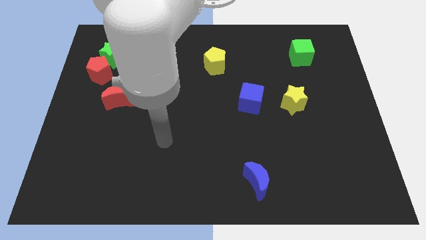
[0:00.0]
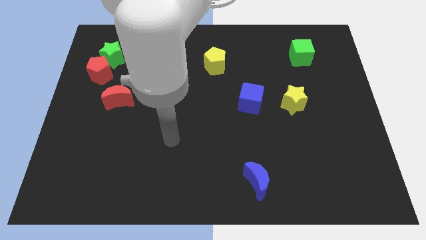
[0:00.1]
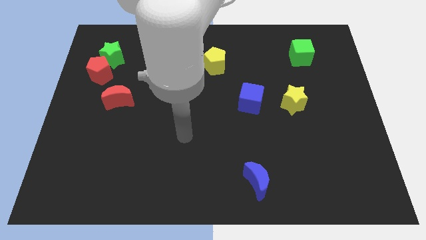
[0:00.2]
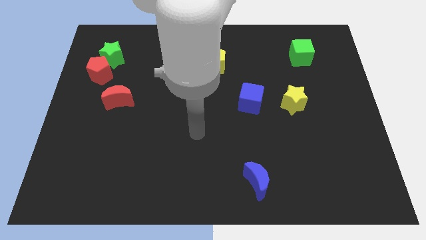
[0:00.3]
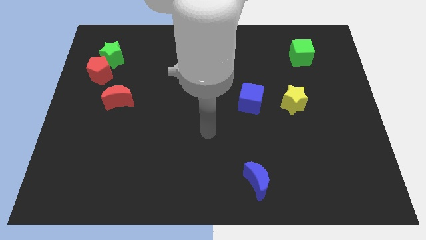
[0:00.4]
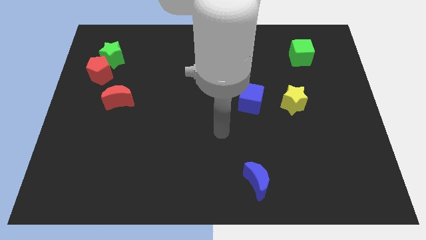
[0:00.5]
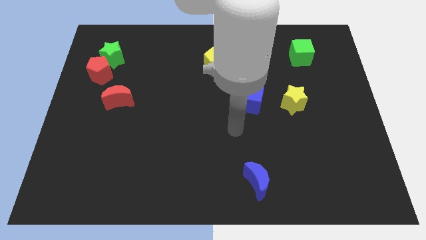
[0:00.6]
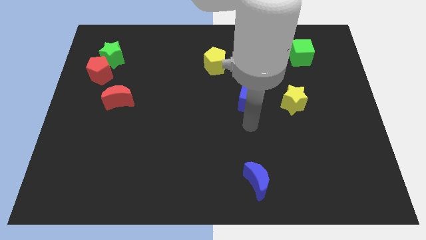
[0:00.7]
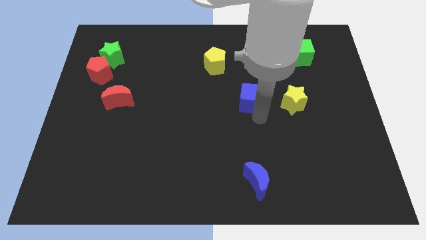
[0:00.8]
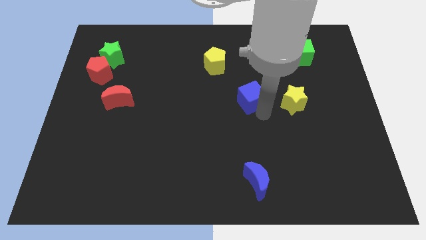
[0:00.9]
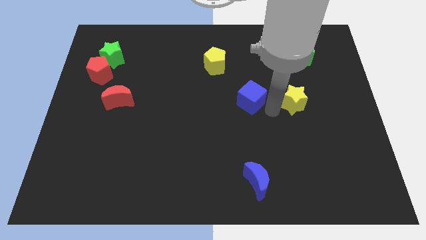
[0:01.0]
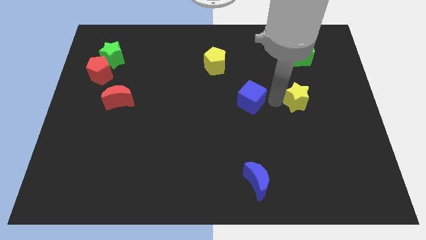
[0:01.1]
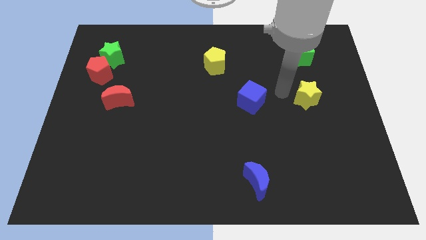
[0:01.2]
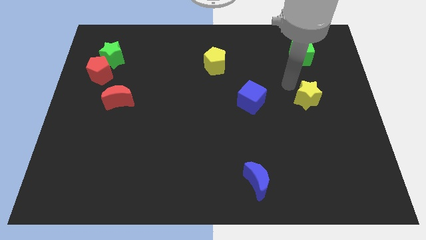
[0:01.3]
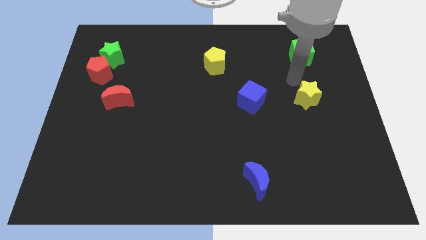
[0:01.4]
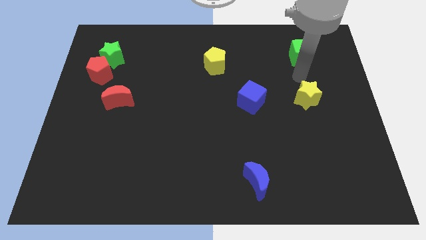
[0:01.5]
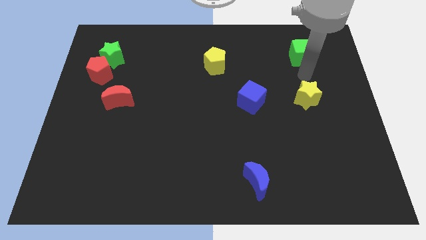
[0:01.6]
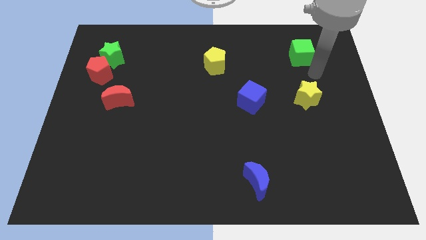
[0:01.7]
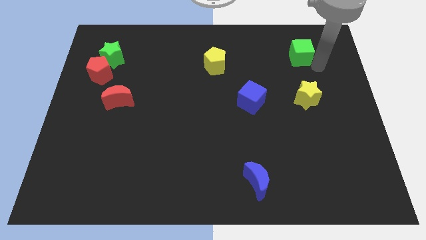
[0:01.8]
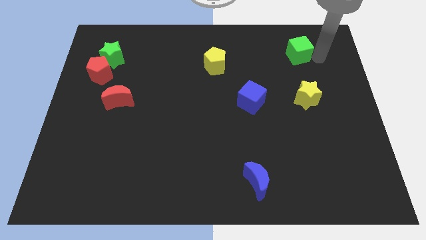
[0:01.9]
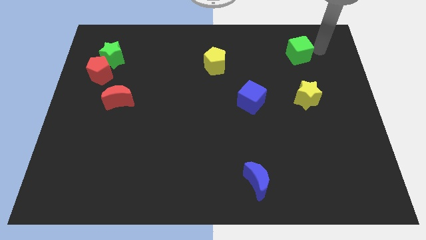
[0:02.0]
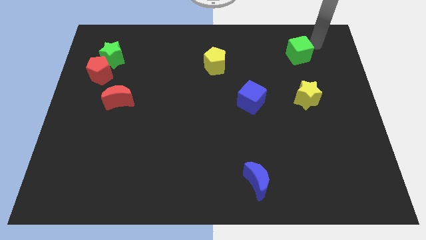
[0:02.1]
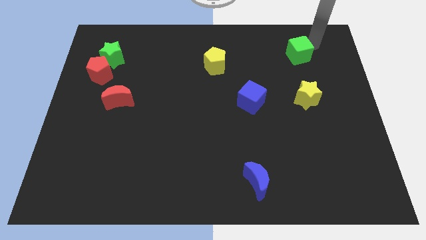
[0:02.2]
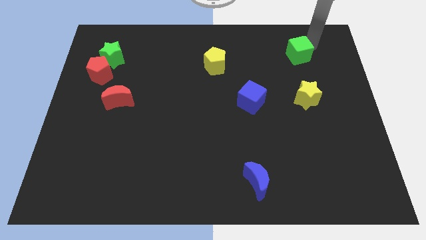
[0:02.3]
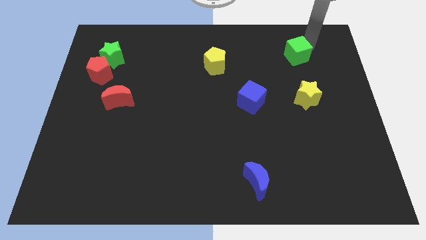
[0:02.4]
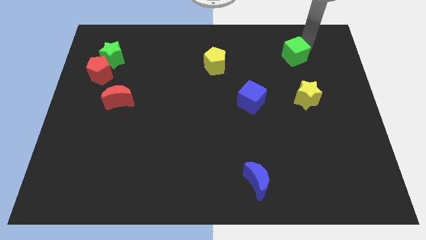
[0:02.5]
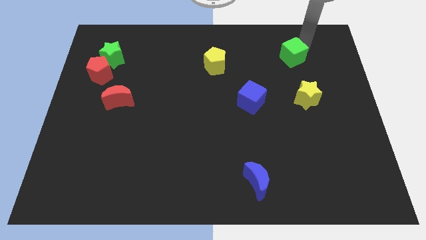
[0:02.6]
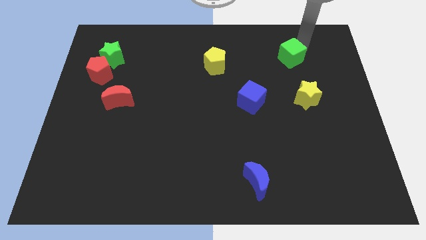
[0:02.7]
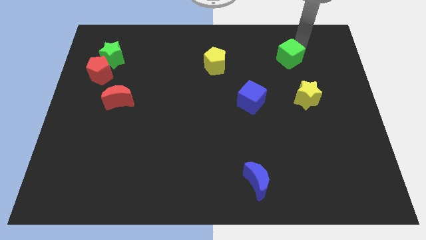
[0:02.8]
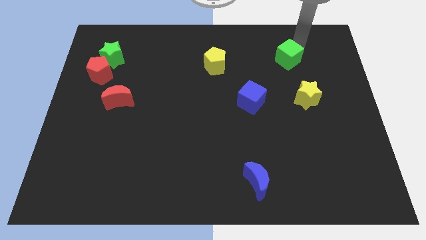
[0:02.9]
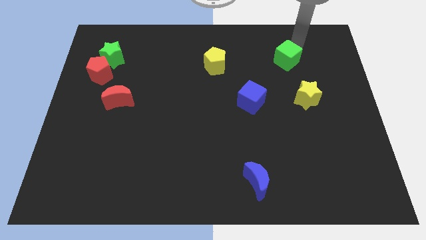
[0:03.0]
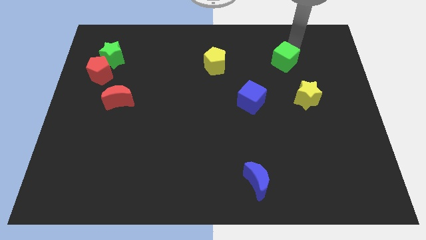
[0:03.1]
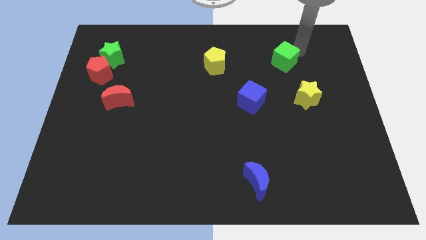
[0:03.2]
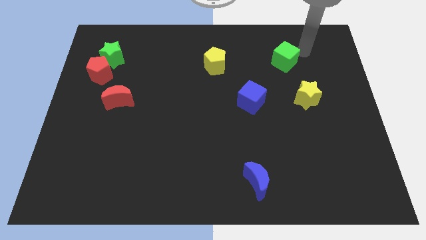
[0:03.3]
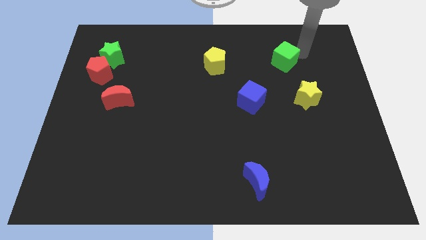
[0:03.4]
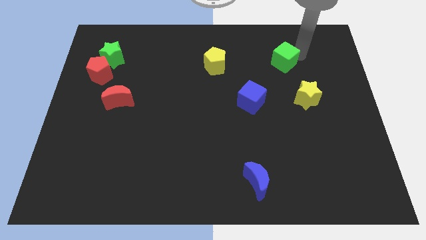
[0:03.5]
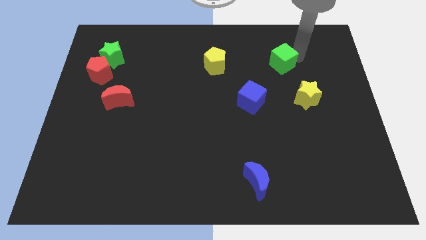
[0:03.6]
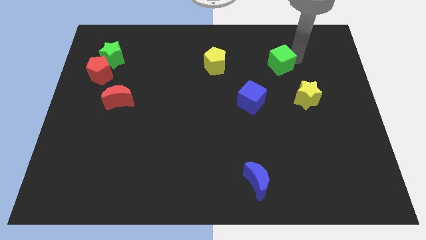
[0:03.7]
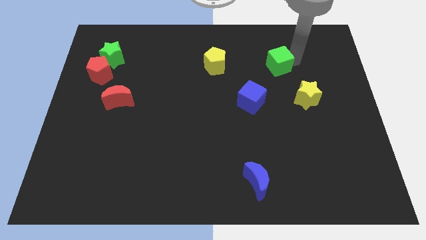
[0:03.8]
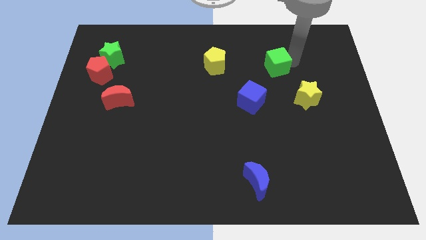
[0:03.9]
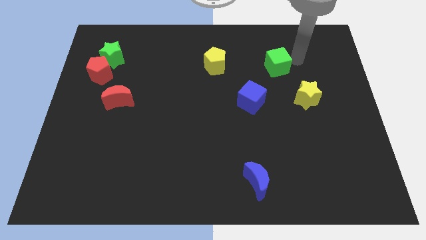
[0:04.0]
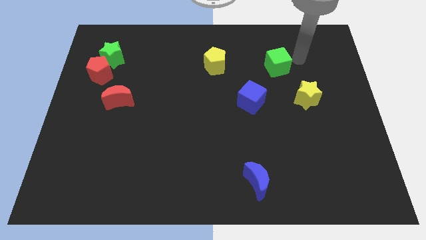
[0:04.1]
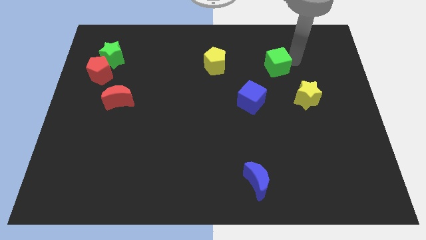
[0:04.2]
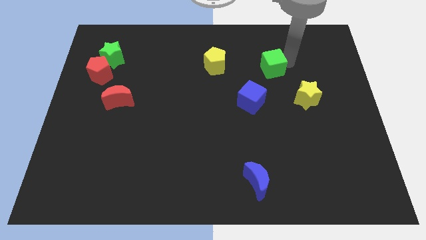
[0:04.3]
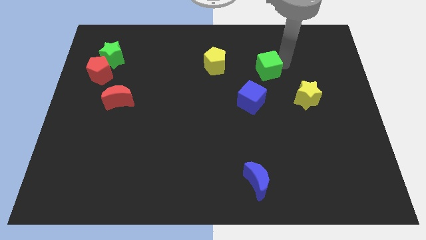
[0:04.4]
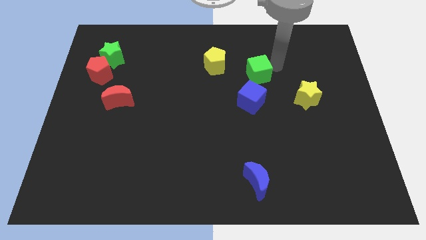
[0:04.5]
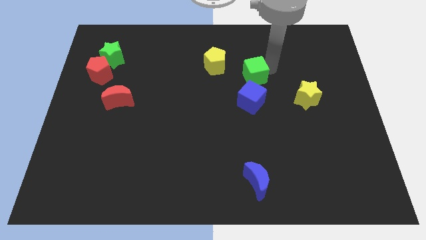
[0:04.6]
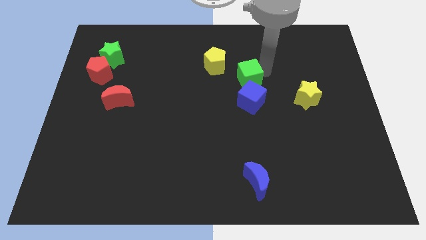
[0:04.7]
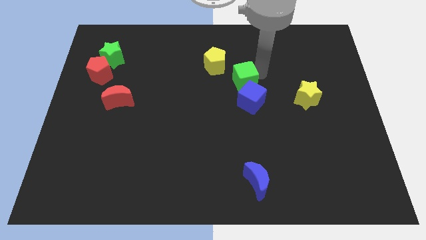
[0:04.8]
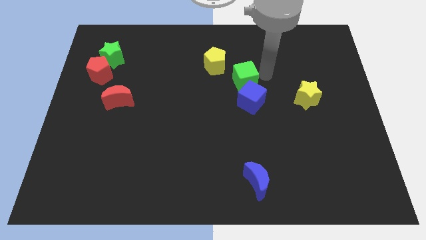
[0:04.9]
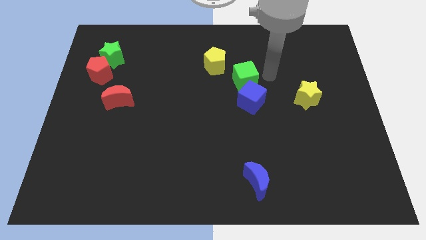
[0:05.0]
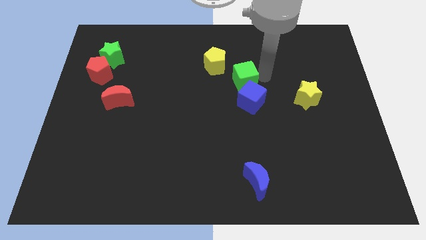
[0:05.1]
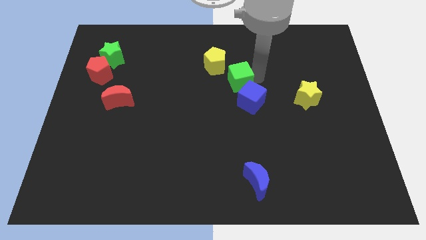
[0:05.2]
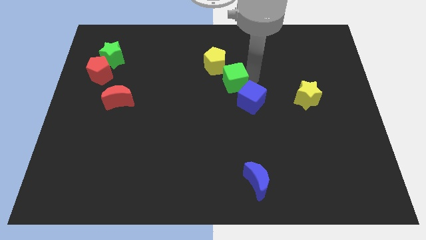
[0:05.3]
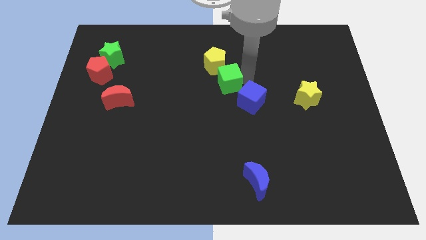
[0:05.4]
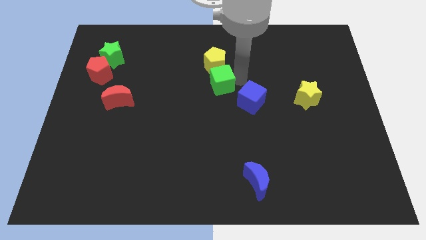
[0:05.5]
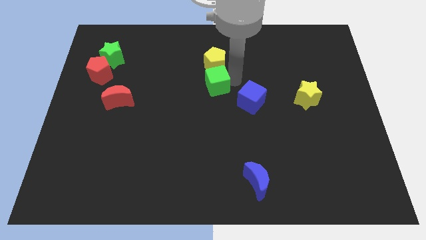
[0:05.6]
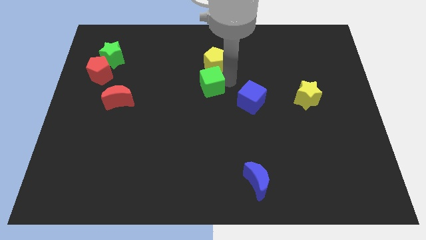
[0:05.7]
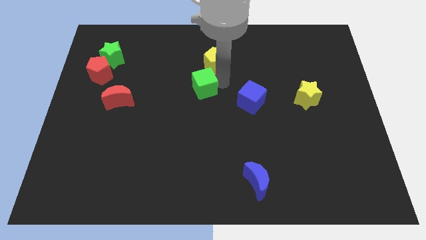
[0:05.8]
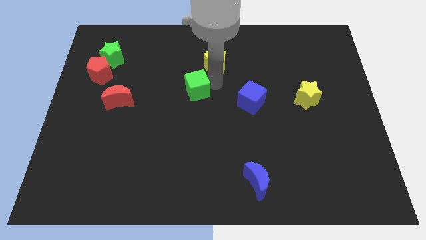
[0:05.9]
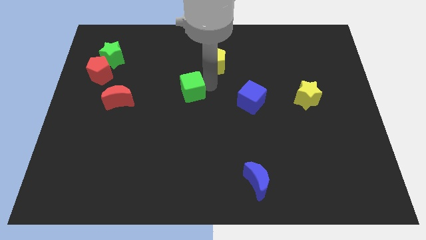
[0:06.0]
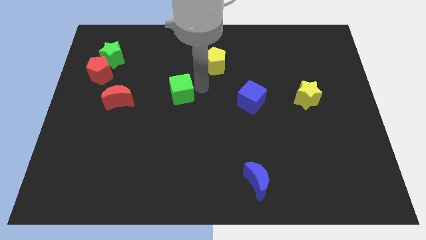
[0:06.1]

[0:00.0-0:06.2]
slide the green cube just right of the red moon

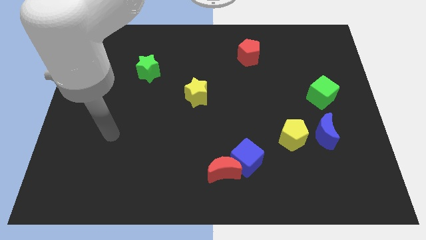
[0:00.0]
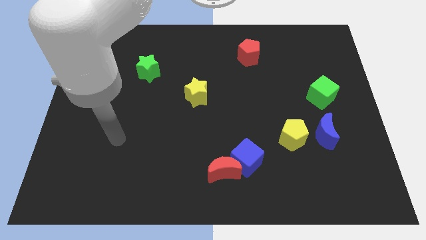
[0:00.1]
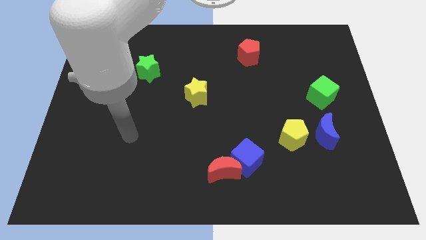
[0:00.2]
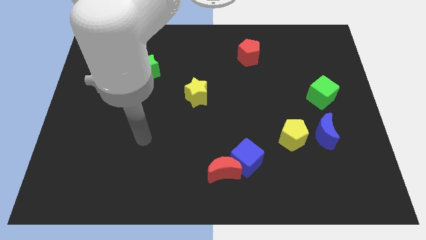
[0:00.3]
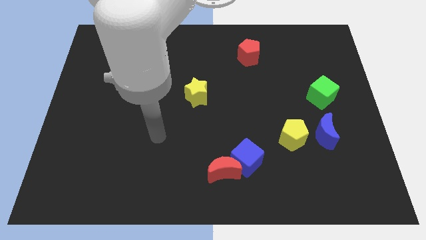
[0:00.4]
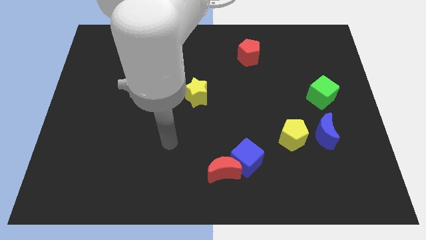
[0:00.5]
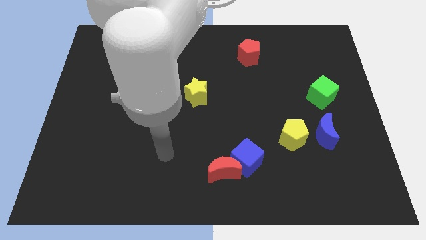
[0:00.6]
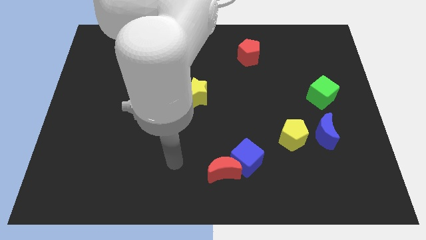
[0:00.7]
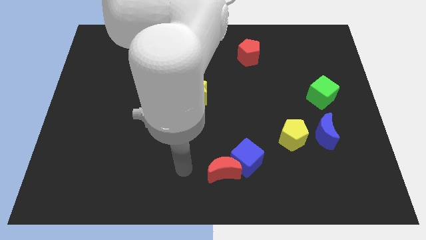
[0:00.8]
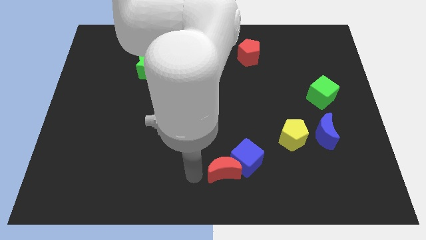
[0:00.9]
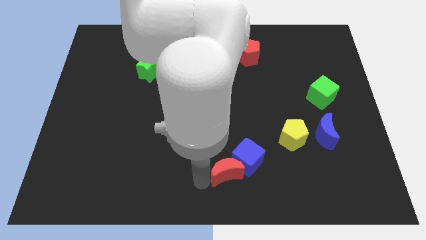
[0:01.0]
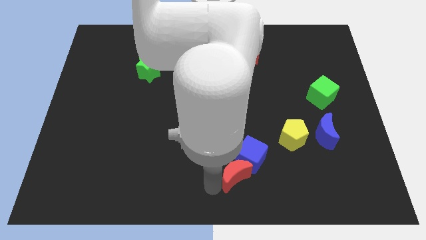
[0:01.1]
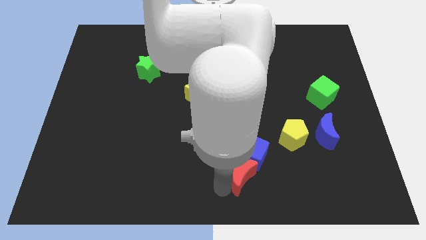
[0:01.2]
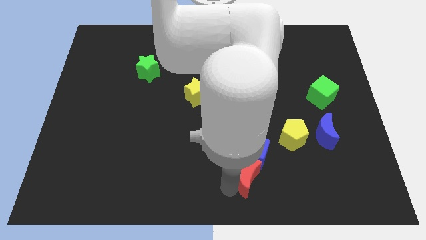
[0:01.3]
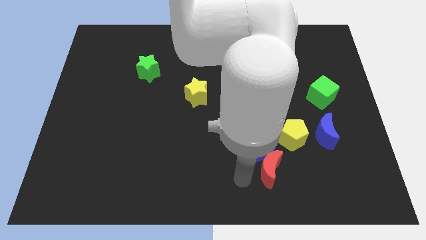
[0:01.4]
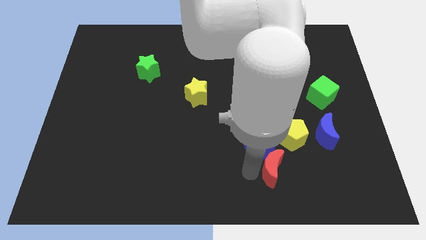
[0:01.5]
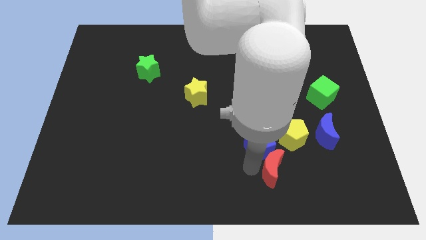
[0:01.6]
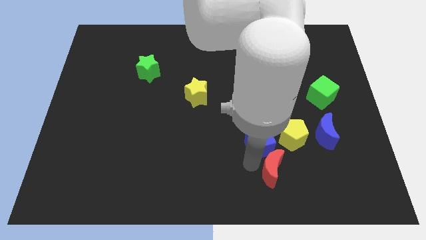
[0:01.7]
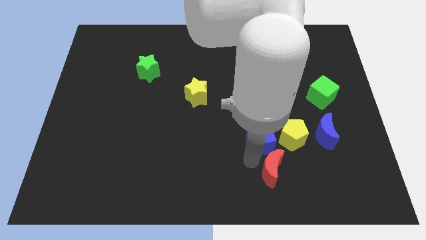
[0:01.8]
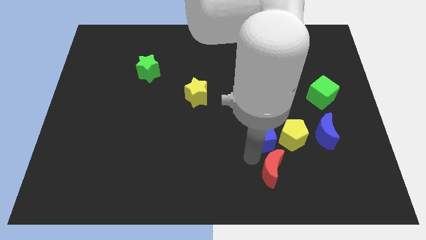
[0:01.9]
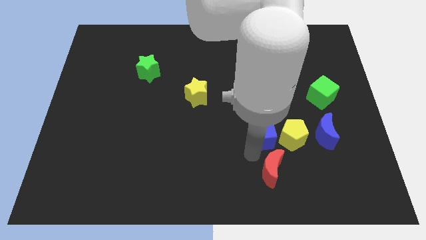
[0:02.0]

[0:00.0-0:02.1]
move the blue cube diagonally up and to the left of the yellow pentagon
